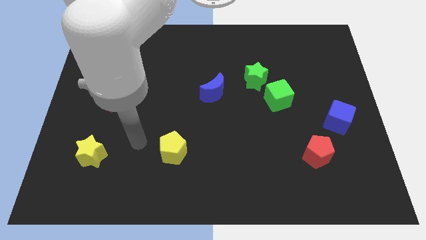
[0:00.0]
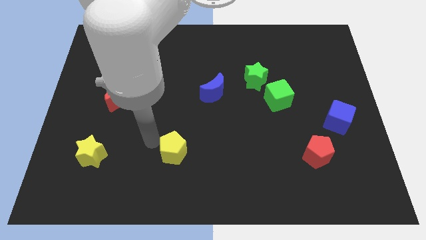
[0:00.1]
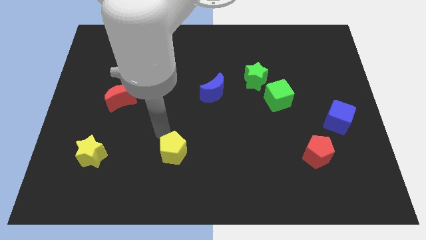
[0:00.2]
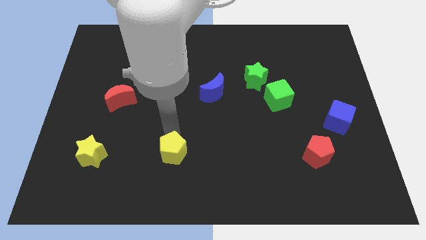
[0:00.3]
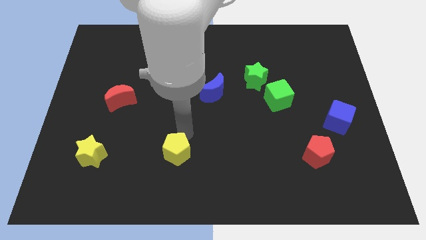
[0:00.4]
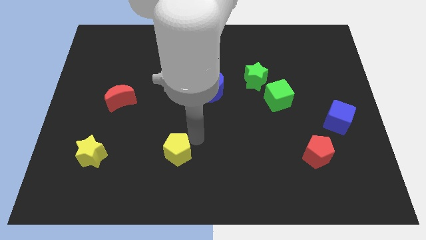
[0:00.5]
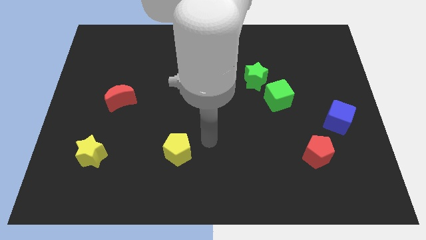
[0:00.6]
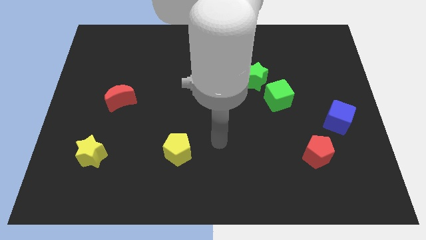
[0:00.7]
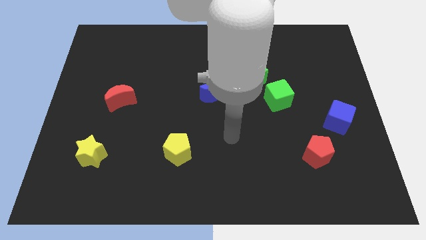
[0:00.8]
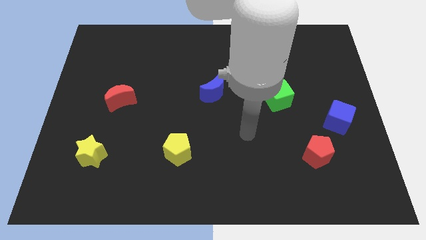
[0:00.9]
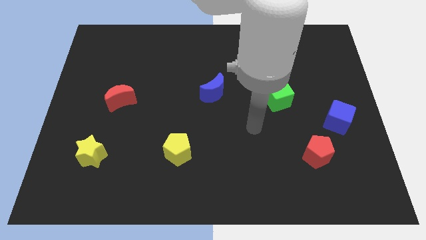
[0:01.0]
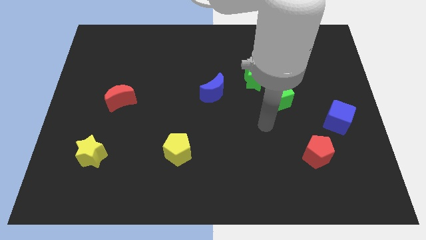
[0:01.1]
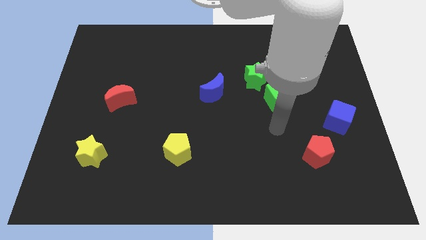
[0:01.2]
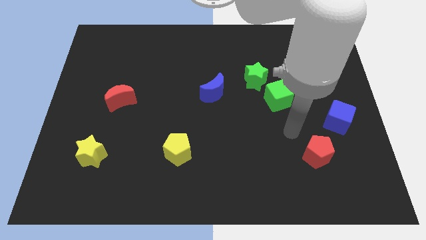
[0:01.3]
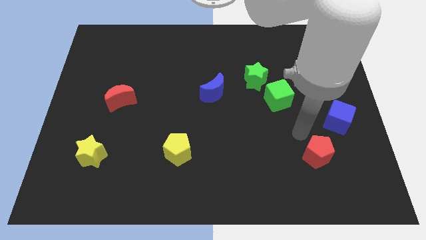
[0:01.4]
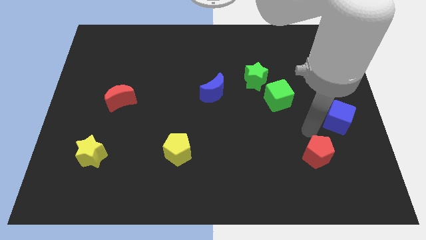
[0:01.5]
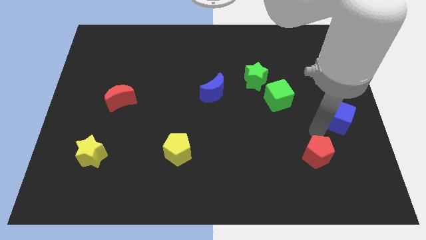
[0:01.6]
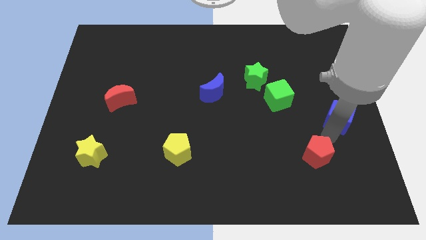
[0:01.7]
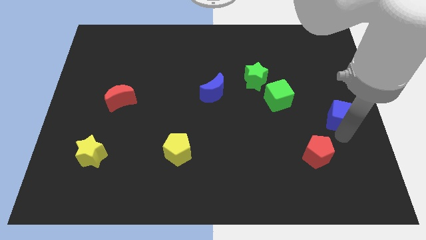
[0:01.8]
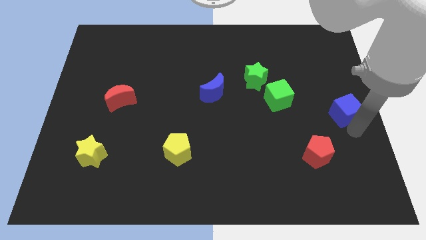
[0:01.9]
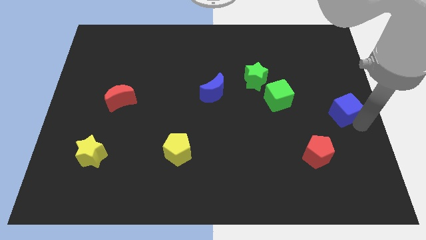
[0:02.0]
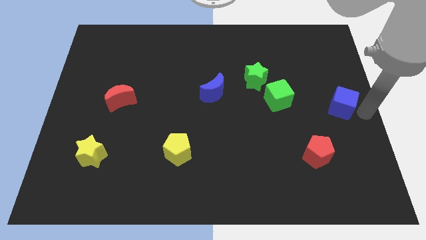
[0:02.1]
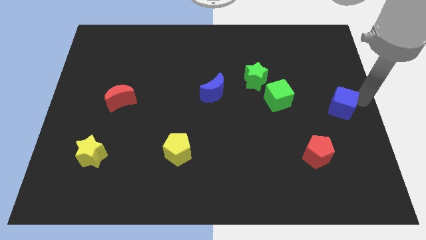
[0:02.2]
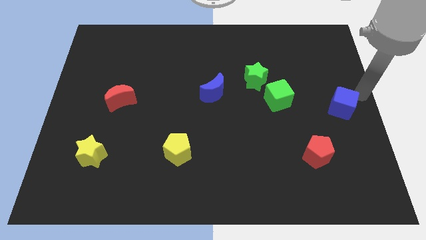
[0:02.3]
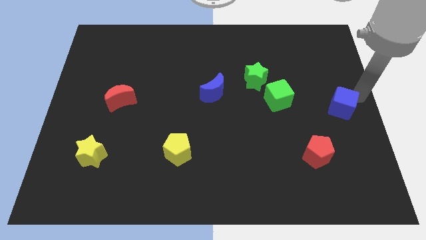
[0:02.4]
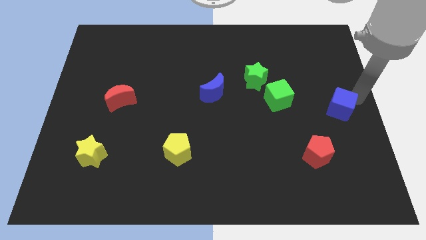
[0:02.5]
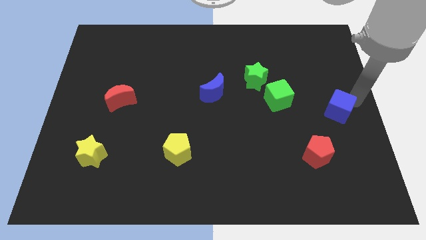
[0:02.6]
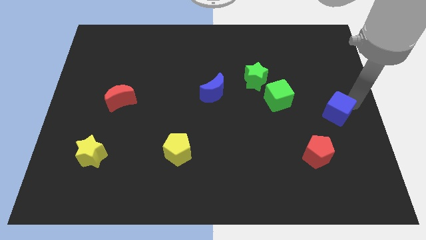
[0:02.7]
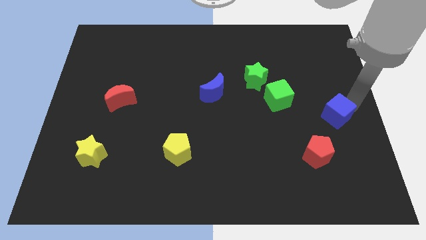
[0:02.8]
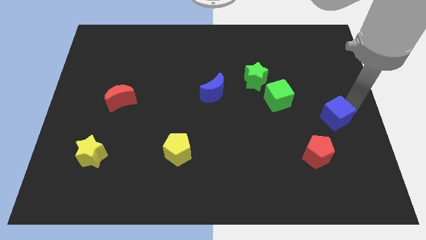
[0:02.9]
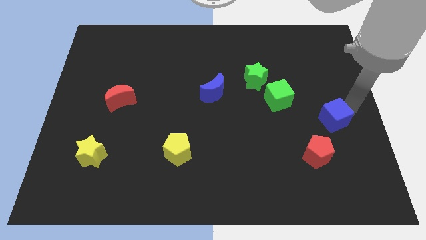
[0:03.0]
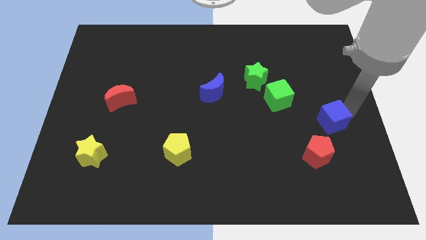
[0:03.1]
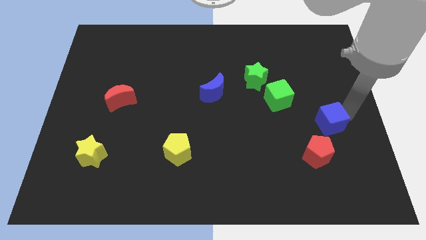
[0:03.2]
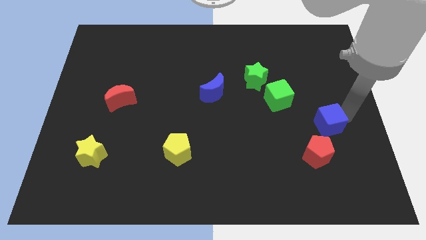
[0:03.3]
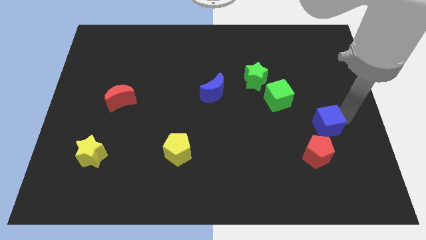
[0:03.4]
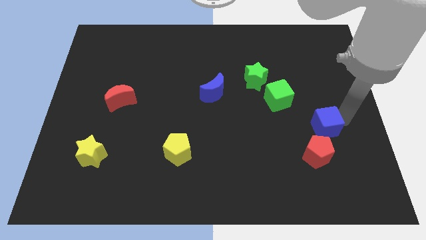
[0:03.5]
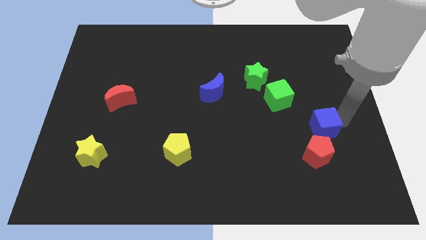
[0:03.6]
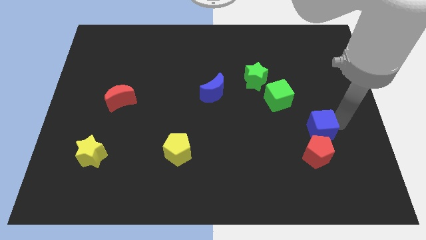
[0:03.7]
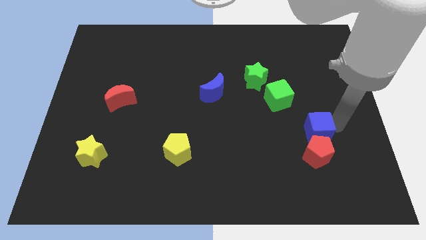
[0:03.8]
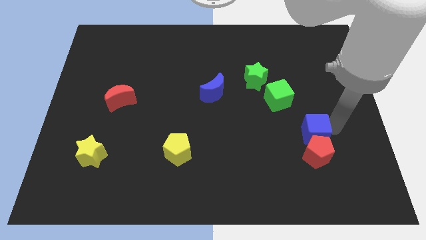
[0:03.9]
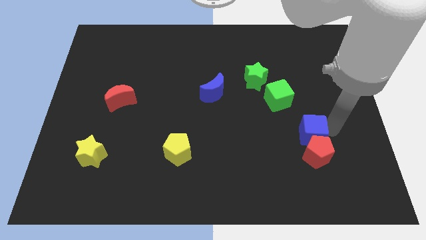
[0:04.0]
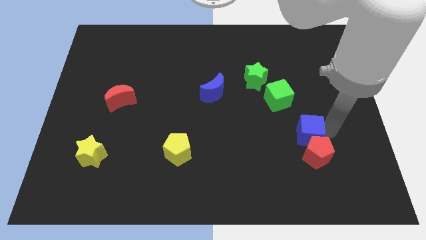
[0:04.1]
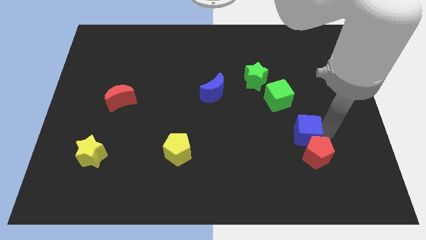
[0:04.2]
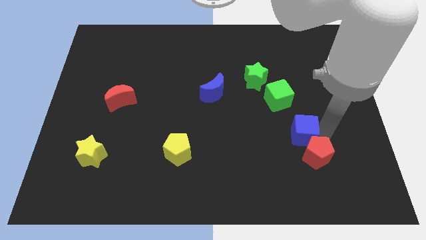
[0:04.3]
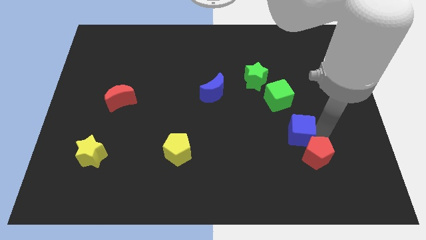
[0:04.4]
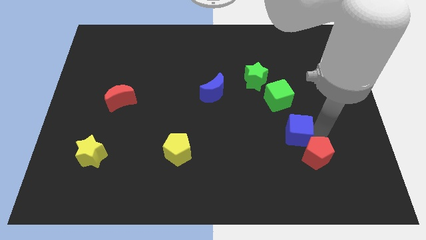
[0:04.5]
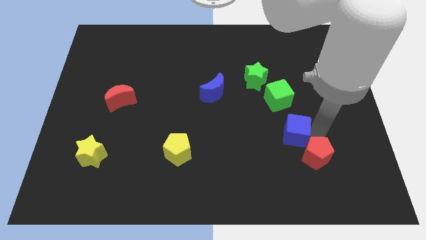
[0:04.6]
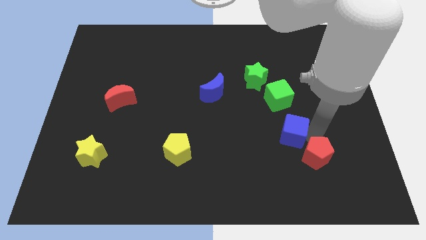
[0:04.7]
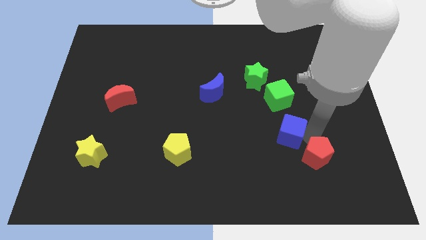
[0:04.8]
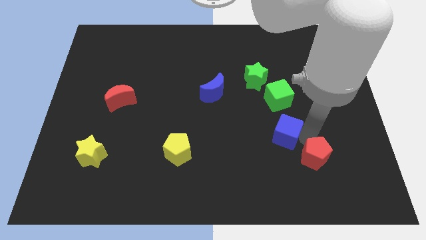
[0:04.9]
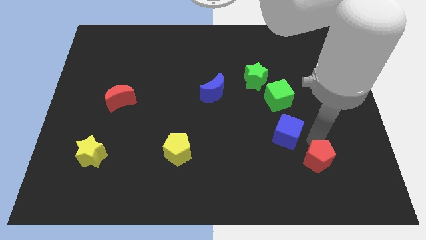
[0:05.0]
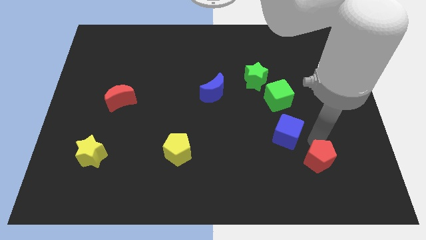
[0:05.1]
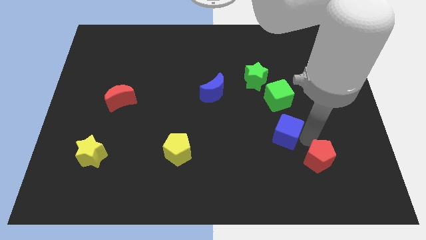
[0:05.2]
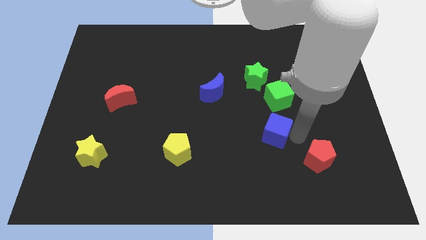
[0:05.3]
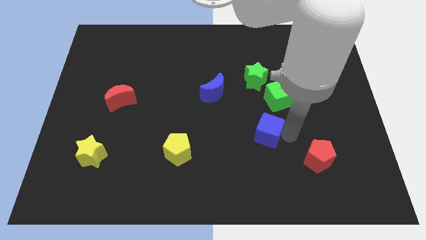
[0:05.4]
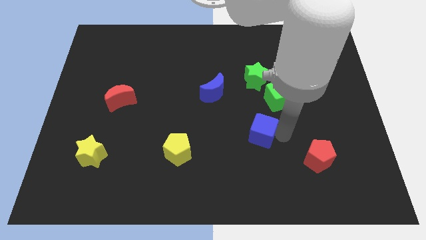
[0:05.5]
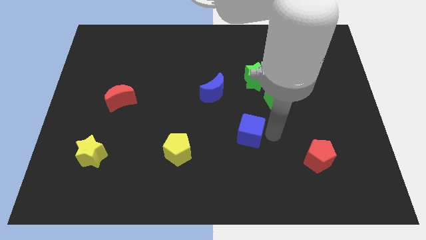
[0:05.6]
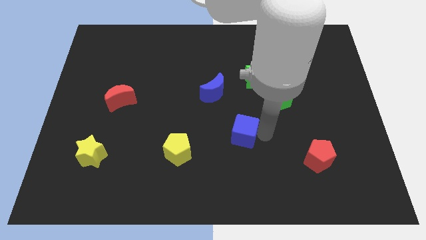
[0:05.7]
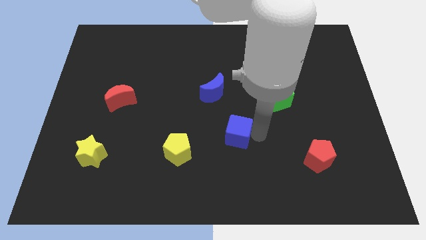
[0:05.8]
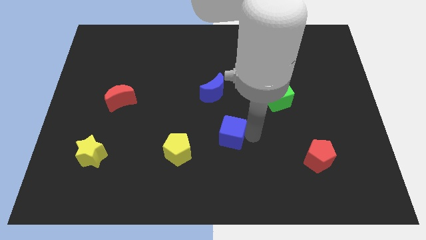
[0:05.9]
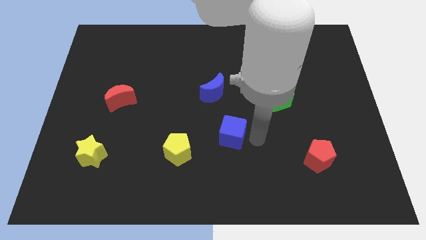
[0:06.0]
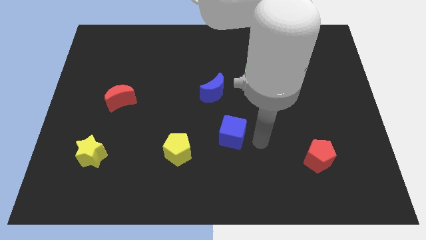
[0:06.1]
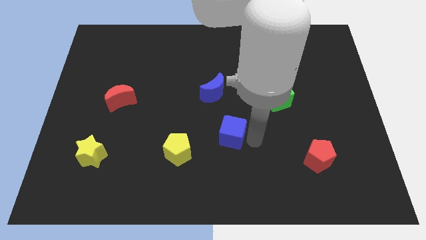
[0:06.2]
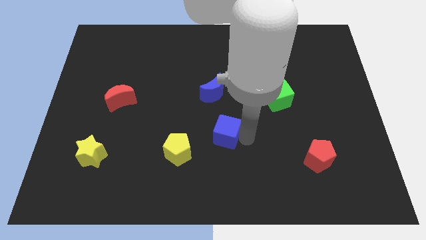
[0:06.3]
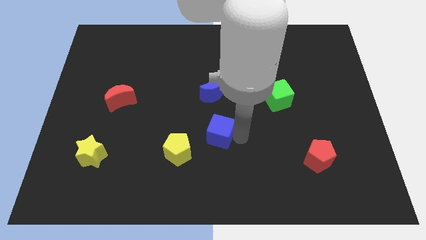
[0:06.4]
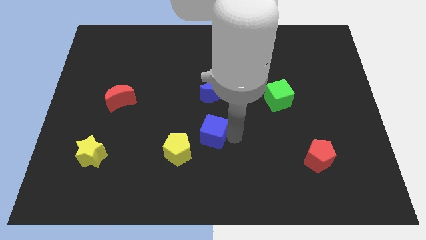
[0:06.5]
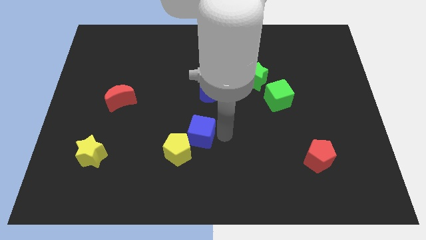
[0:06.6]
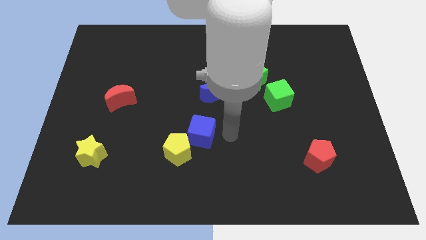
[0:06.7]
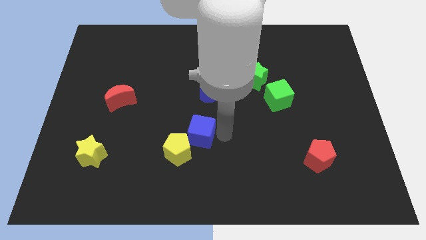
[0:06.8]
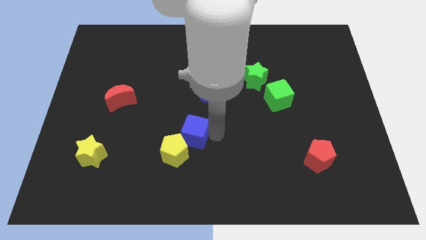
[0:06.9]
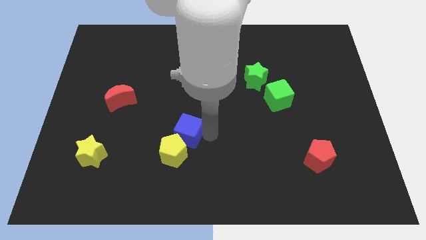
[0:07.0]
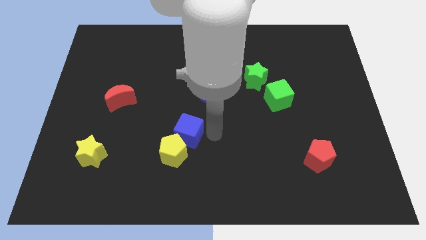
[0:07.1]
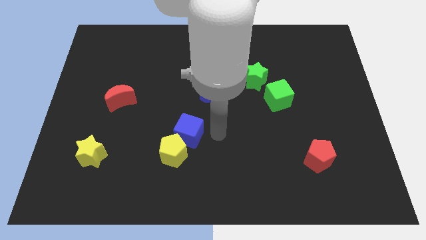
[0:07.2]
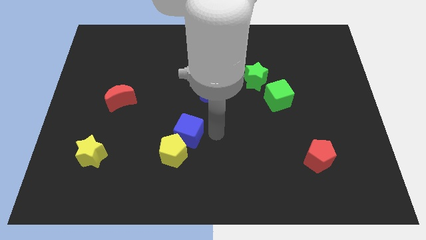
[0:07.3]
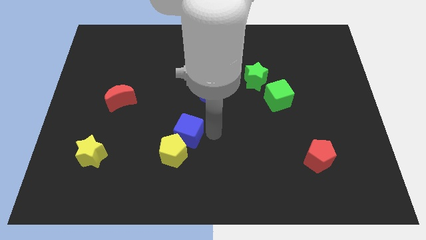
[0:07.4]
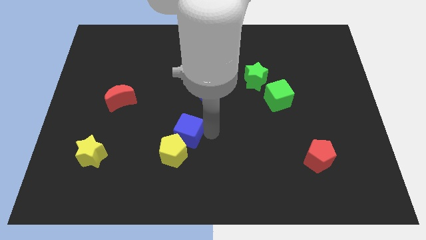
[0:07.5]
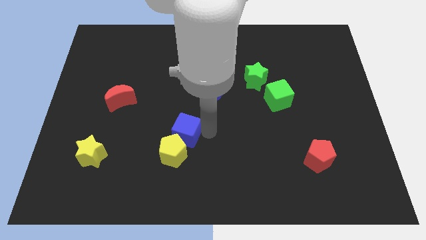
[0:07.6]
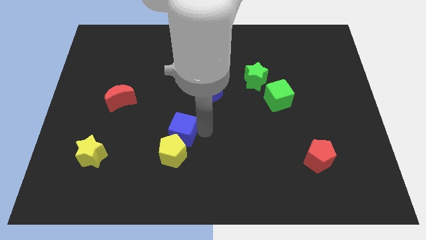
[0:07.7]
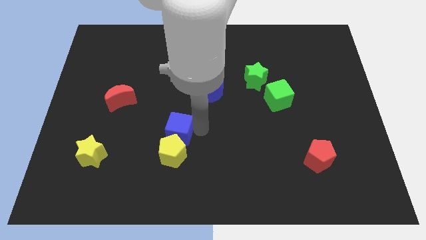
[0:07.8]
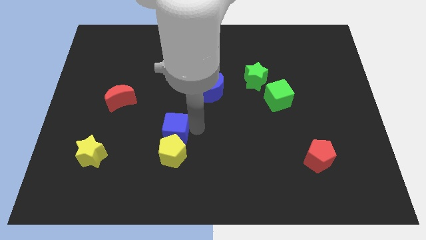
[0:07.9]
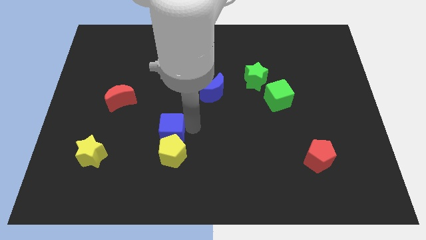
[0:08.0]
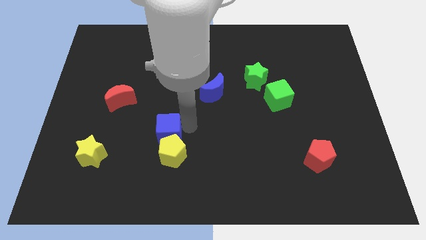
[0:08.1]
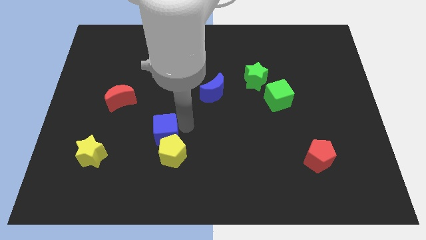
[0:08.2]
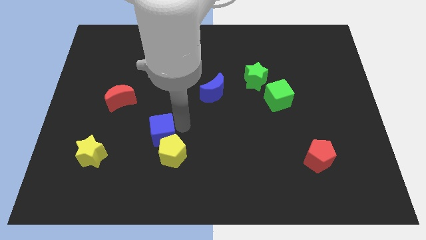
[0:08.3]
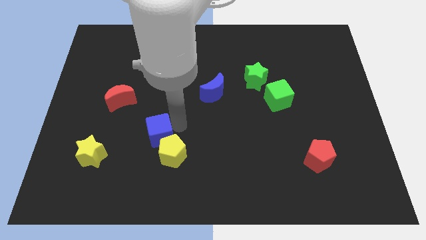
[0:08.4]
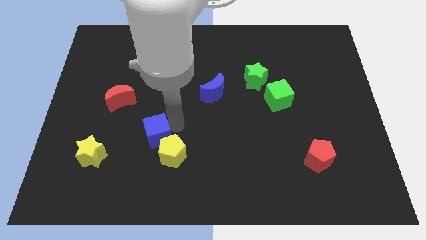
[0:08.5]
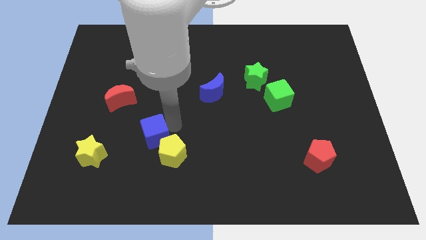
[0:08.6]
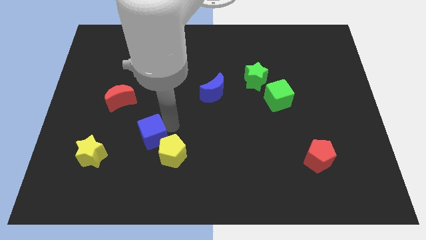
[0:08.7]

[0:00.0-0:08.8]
move the blue cube just left of the yellow pentagon
